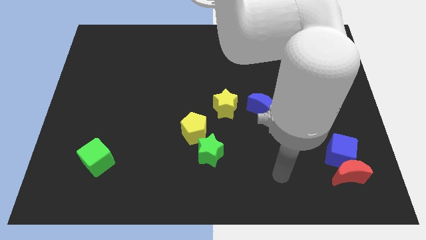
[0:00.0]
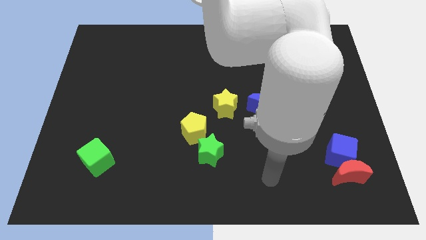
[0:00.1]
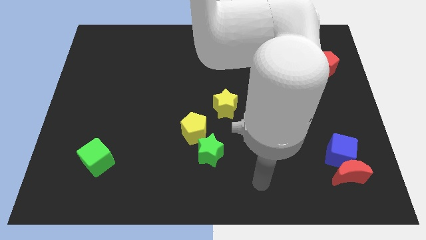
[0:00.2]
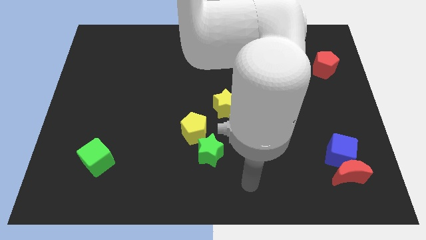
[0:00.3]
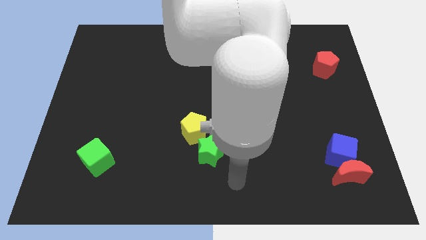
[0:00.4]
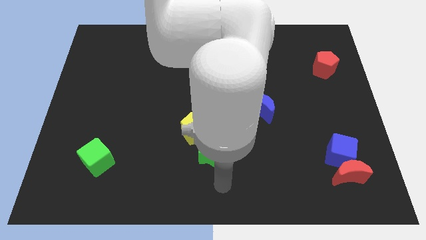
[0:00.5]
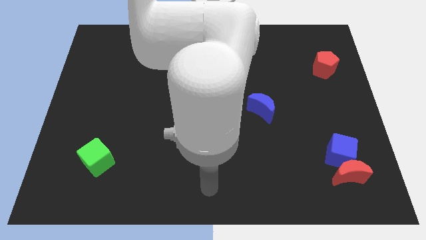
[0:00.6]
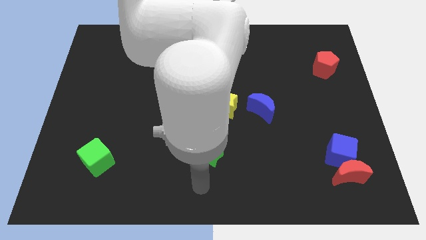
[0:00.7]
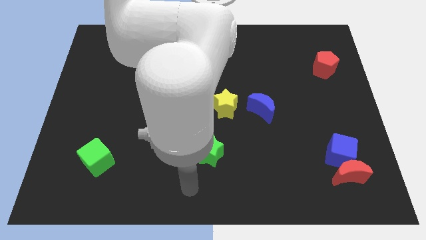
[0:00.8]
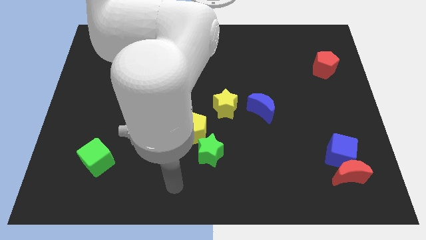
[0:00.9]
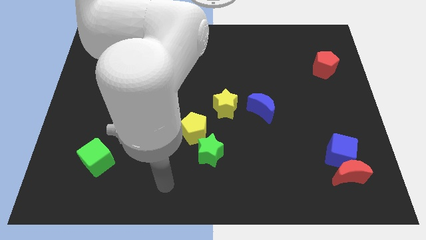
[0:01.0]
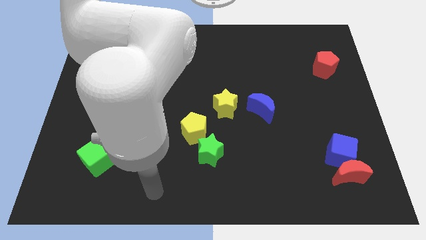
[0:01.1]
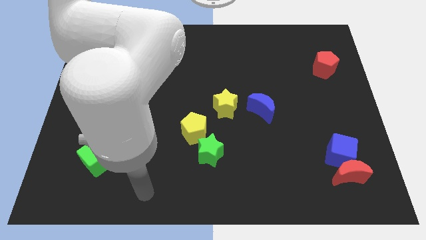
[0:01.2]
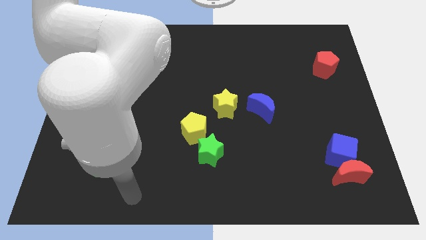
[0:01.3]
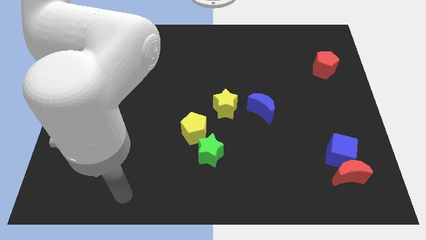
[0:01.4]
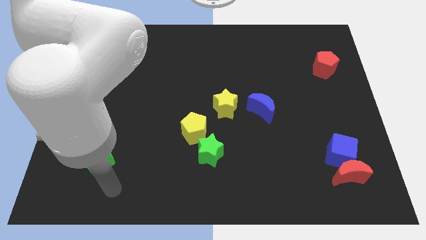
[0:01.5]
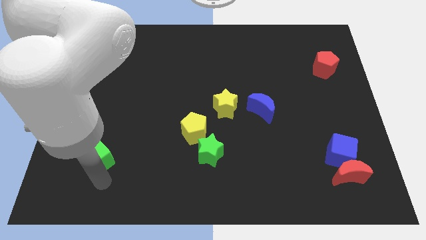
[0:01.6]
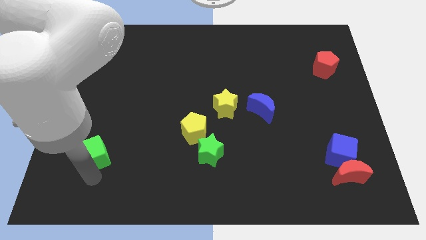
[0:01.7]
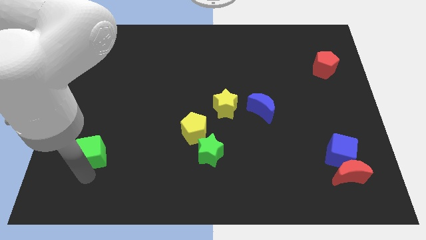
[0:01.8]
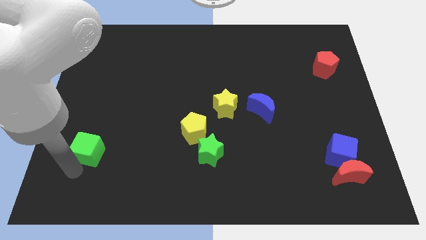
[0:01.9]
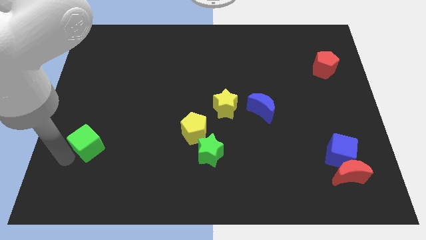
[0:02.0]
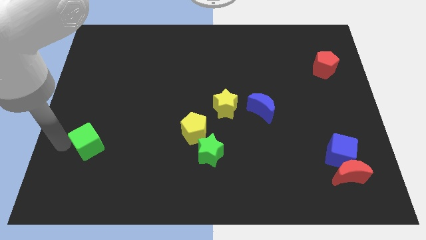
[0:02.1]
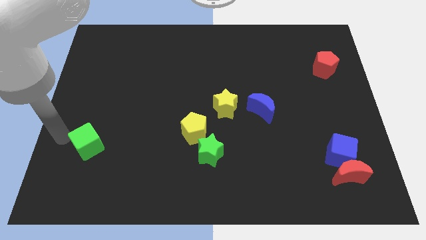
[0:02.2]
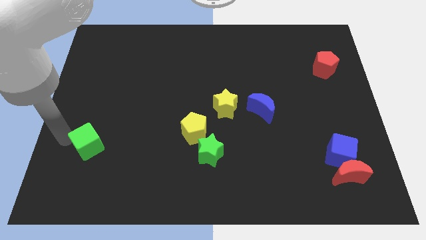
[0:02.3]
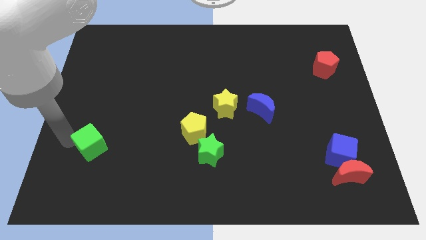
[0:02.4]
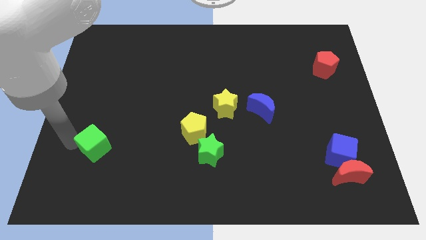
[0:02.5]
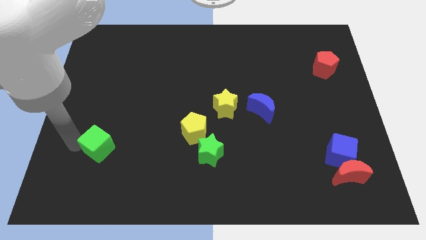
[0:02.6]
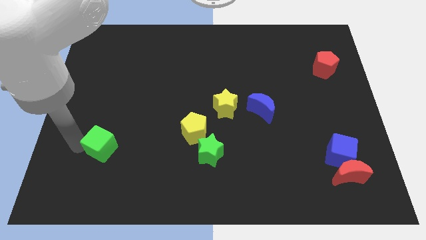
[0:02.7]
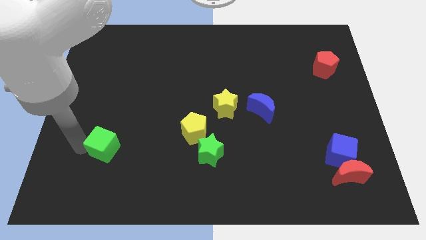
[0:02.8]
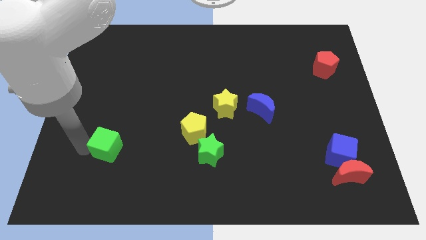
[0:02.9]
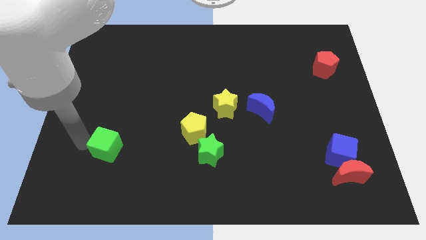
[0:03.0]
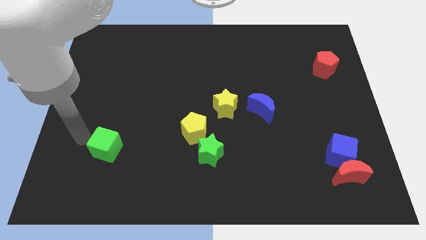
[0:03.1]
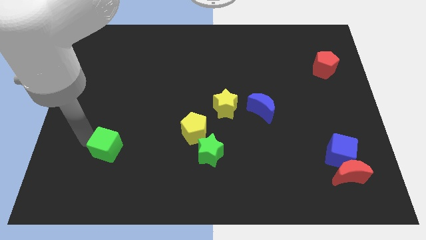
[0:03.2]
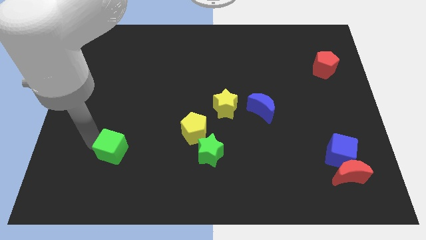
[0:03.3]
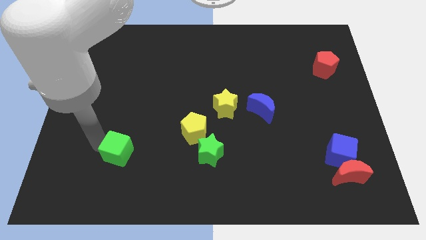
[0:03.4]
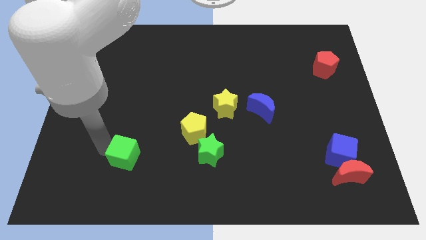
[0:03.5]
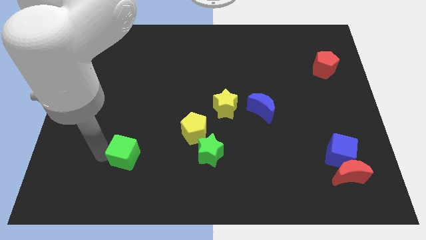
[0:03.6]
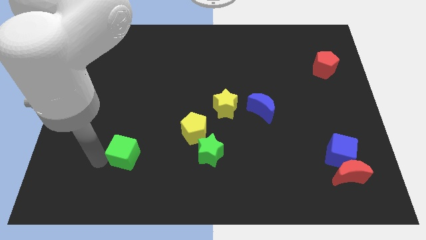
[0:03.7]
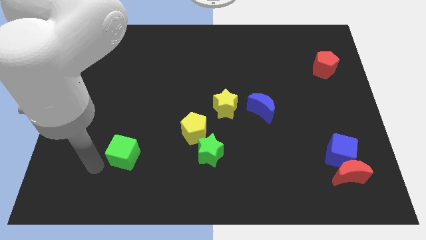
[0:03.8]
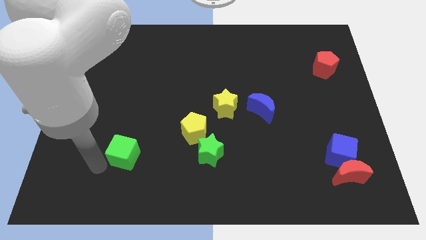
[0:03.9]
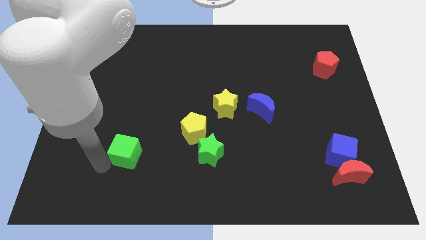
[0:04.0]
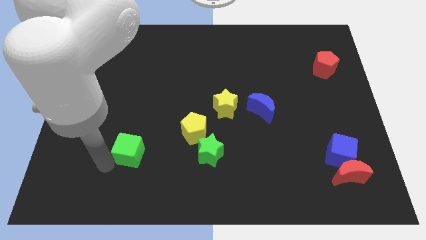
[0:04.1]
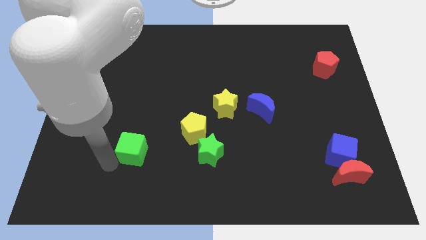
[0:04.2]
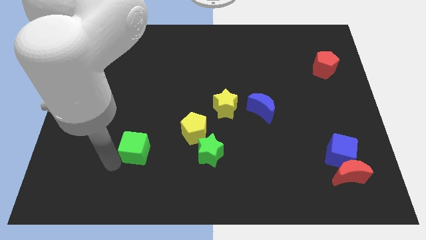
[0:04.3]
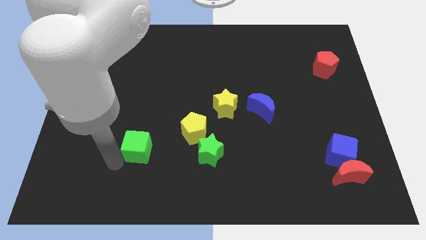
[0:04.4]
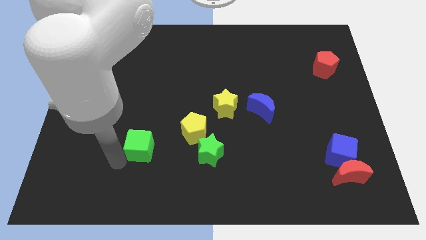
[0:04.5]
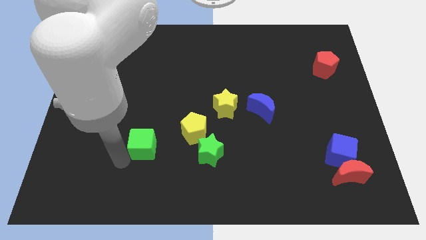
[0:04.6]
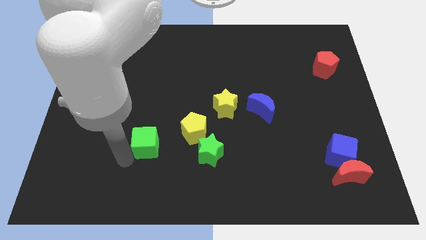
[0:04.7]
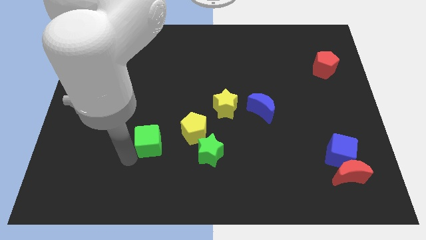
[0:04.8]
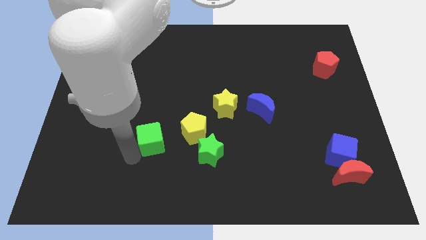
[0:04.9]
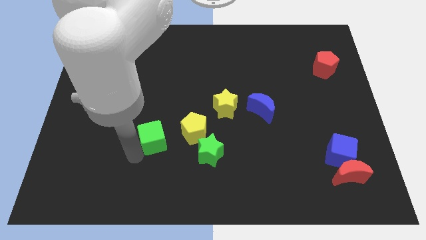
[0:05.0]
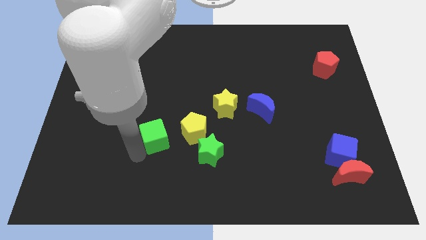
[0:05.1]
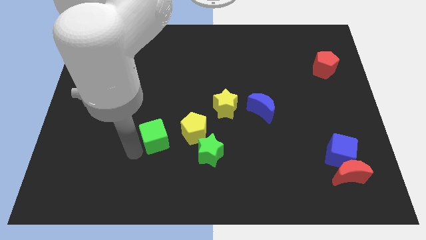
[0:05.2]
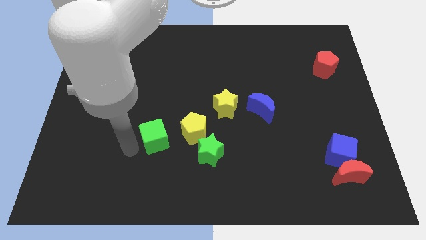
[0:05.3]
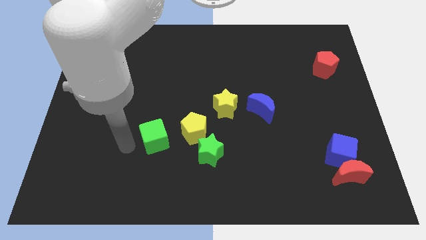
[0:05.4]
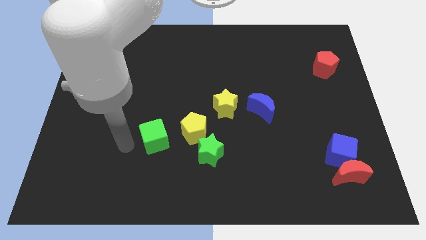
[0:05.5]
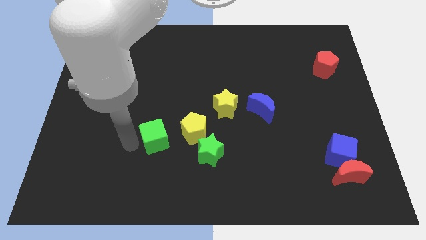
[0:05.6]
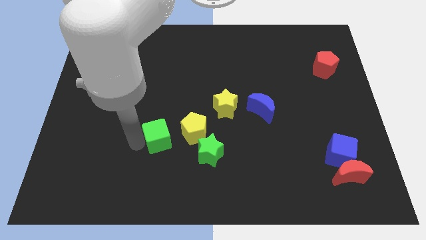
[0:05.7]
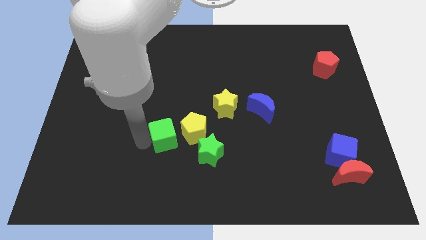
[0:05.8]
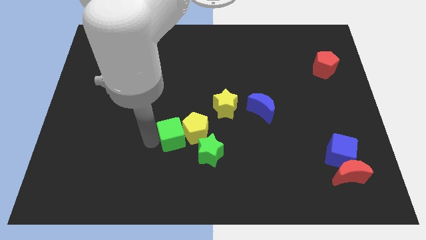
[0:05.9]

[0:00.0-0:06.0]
slide the green cube next to the yellow pentagon

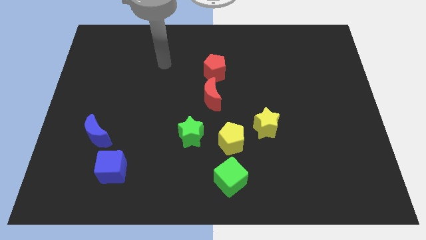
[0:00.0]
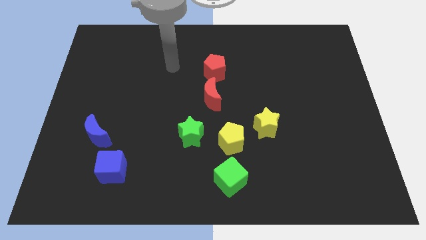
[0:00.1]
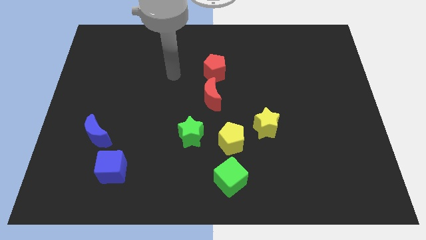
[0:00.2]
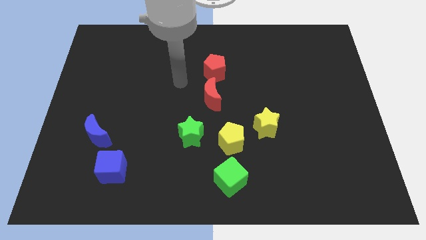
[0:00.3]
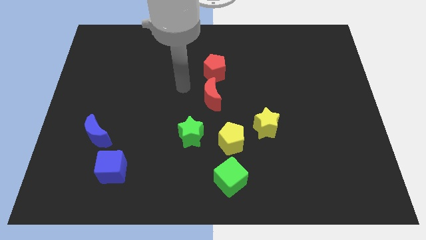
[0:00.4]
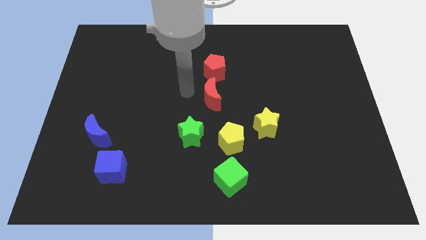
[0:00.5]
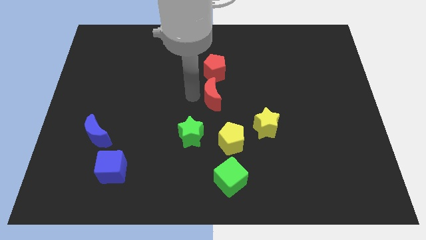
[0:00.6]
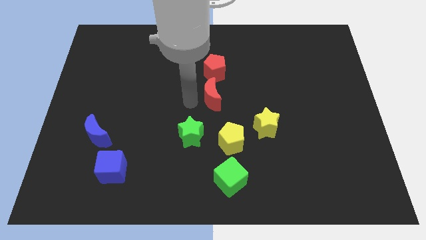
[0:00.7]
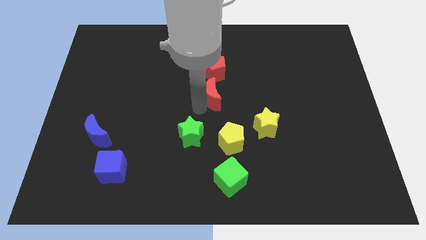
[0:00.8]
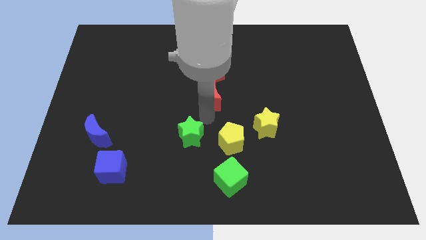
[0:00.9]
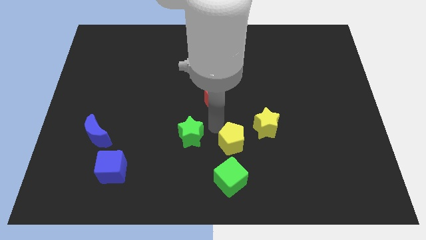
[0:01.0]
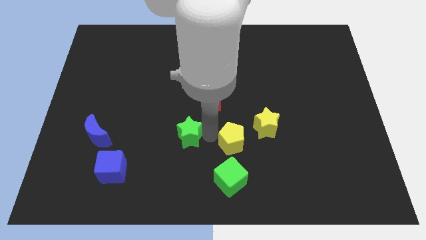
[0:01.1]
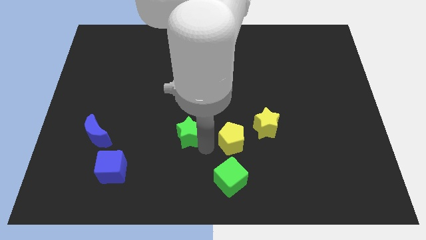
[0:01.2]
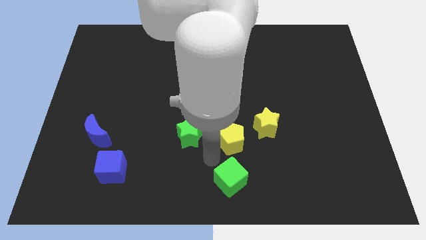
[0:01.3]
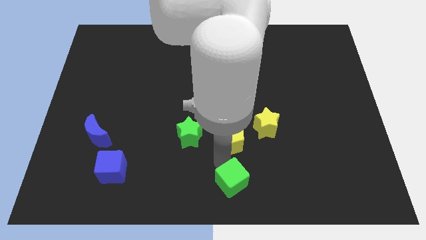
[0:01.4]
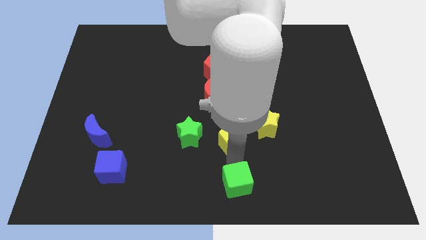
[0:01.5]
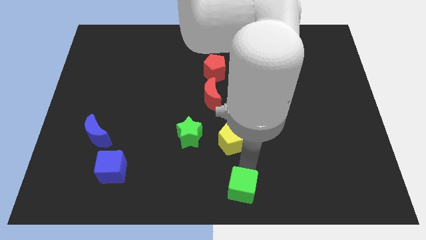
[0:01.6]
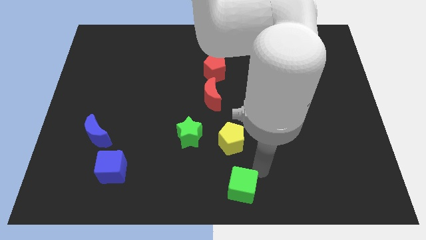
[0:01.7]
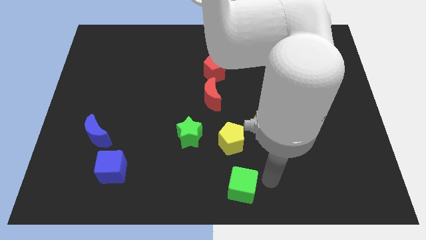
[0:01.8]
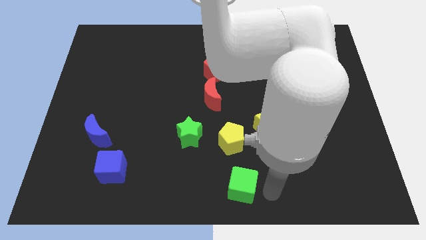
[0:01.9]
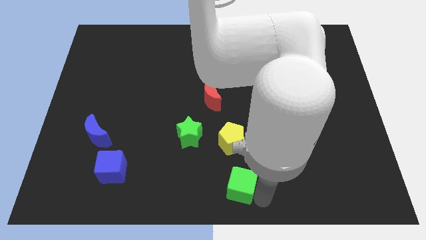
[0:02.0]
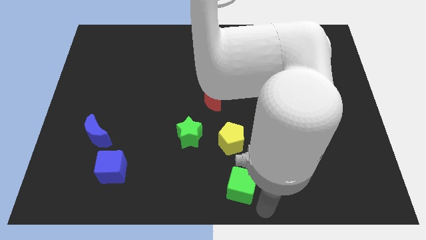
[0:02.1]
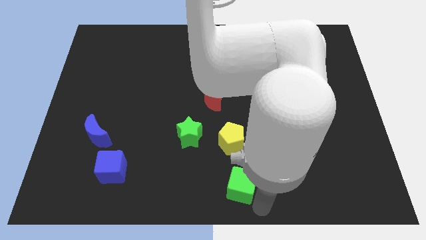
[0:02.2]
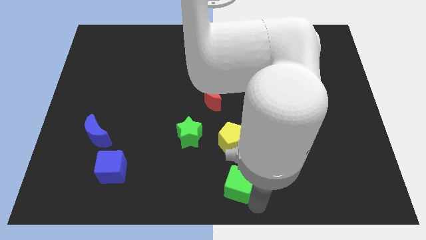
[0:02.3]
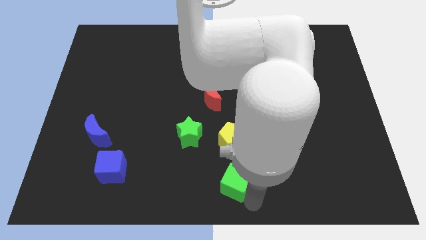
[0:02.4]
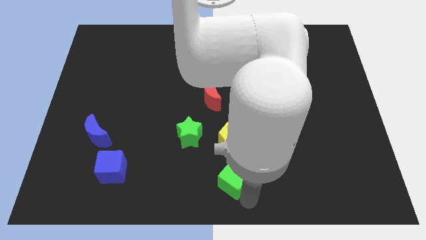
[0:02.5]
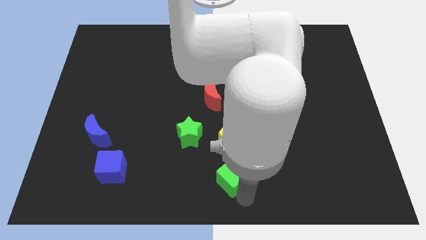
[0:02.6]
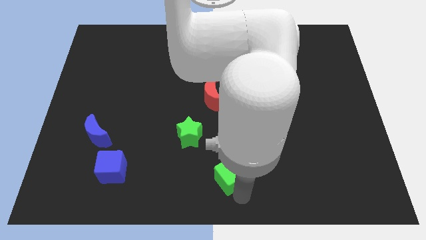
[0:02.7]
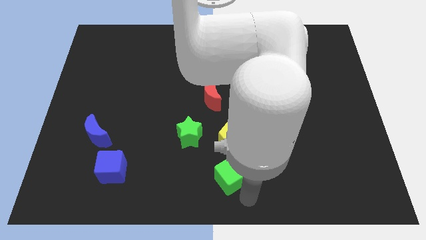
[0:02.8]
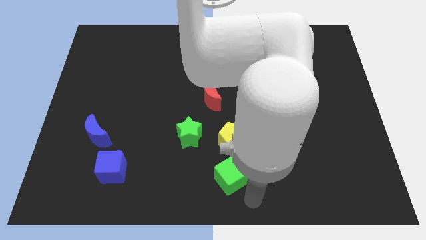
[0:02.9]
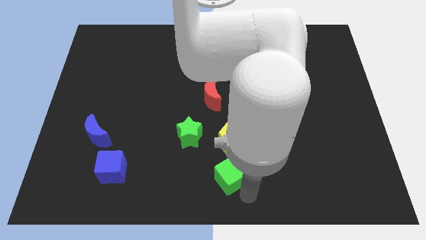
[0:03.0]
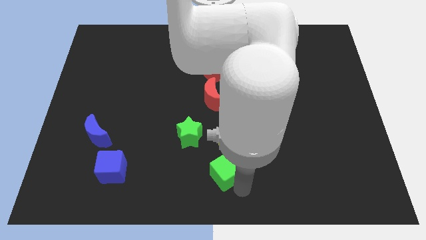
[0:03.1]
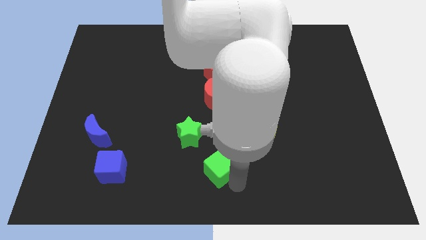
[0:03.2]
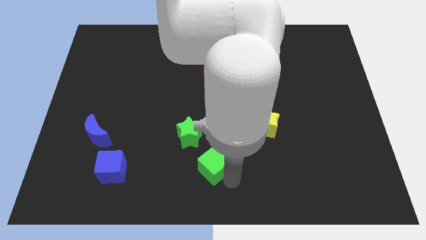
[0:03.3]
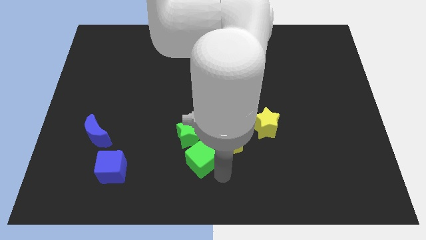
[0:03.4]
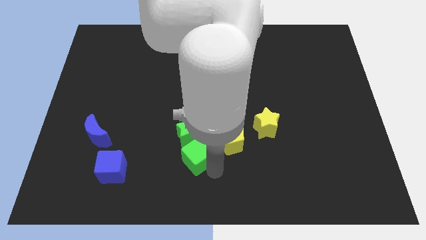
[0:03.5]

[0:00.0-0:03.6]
push the green cube towards the green star
